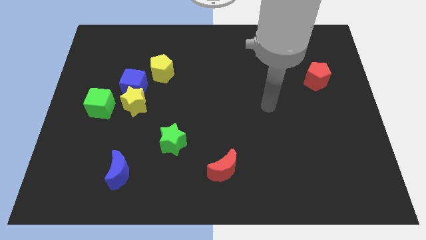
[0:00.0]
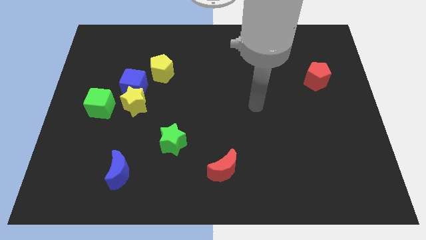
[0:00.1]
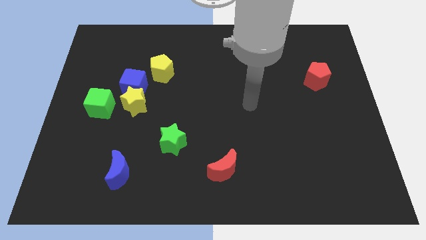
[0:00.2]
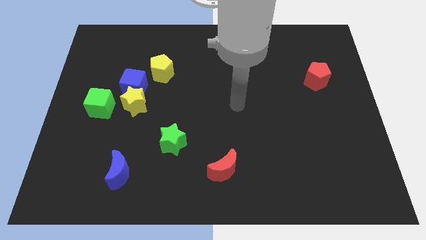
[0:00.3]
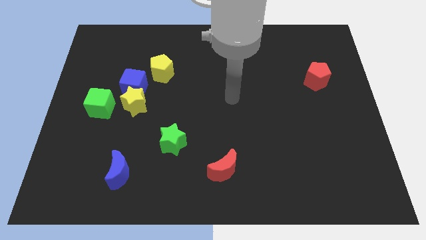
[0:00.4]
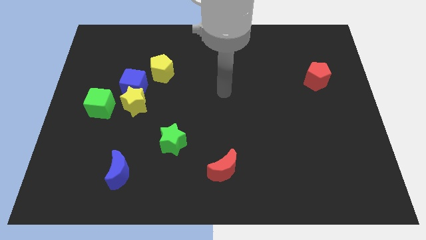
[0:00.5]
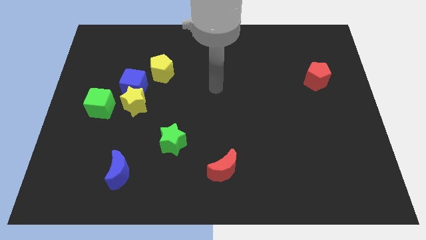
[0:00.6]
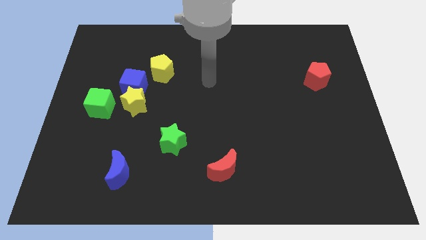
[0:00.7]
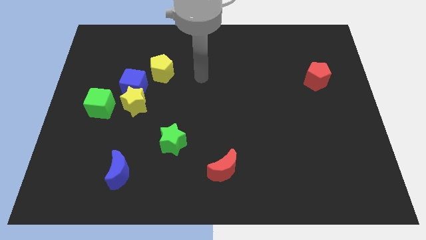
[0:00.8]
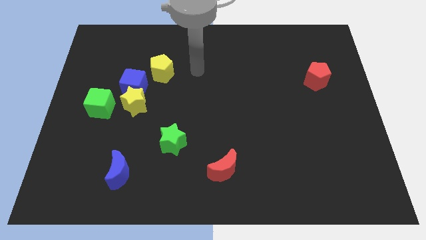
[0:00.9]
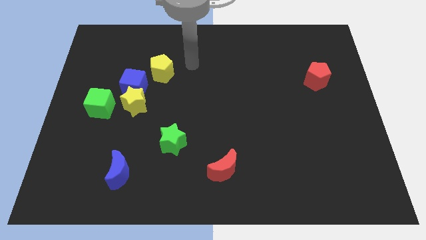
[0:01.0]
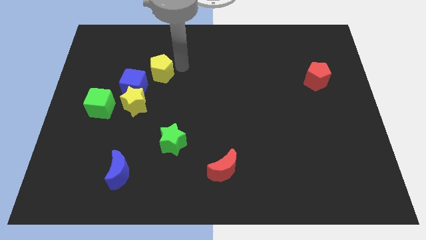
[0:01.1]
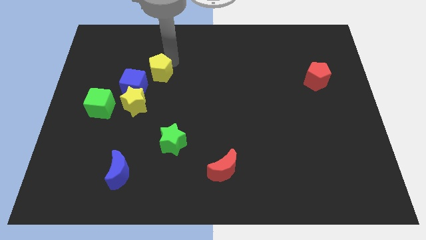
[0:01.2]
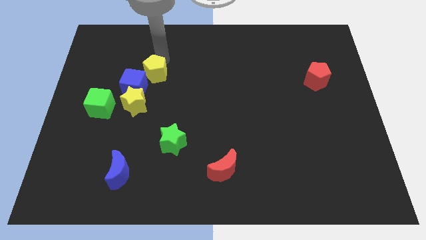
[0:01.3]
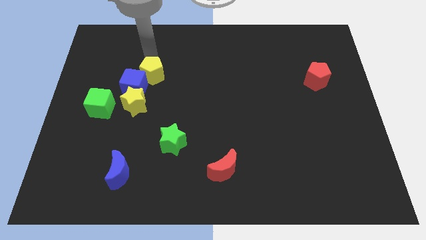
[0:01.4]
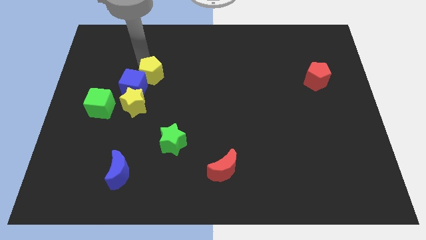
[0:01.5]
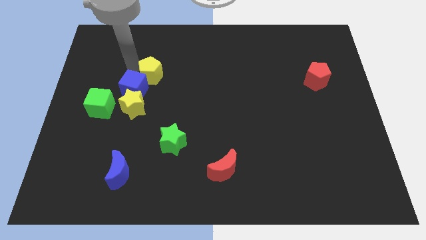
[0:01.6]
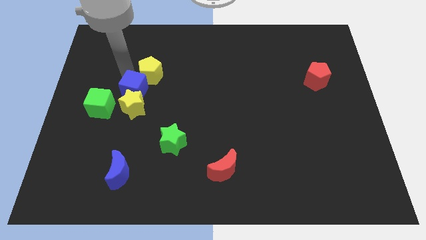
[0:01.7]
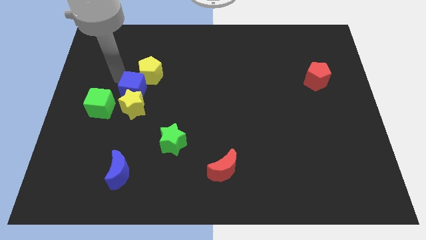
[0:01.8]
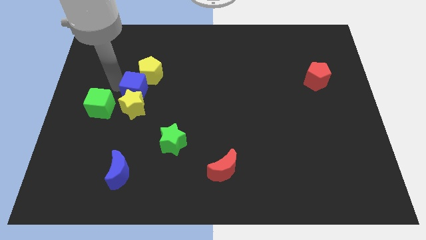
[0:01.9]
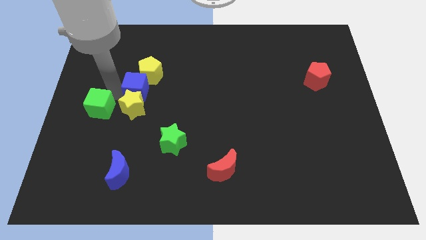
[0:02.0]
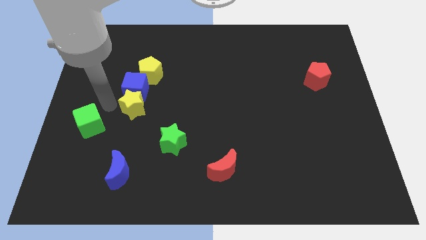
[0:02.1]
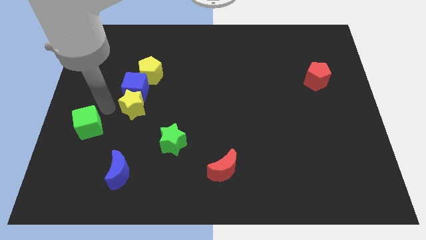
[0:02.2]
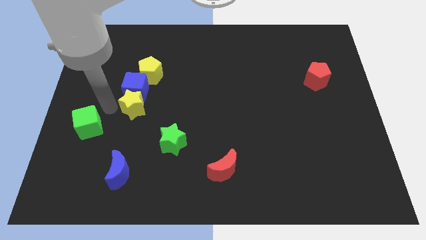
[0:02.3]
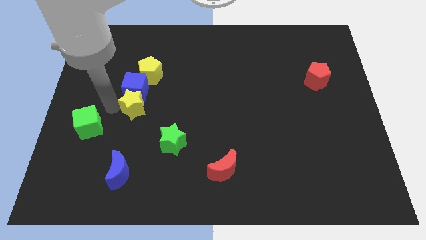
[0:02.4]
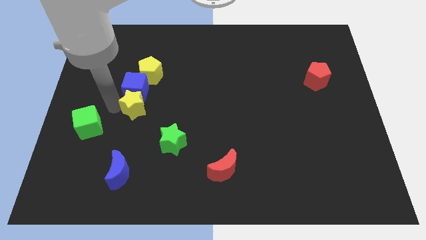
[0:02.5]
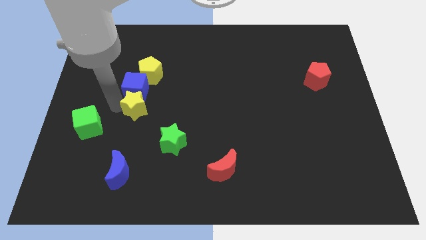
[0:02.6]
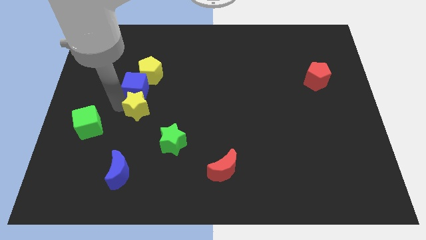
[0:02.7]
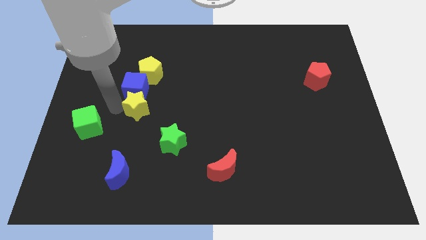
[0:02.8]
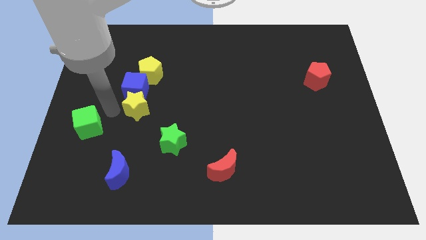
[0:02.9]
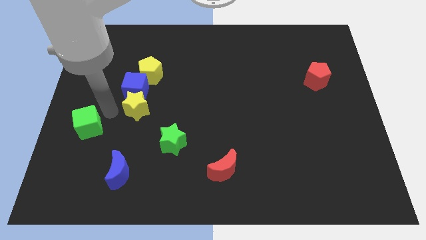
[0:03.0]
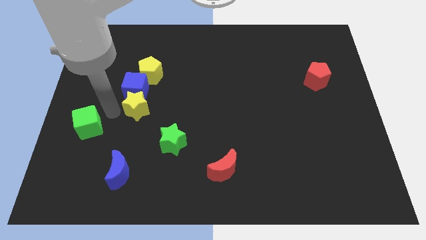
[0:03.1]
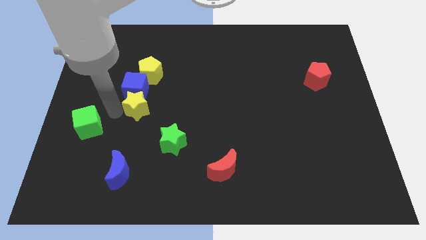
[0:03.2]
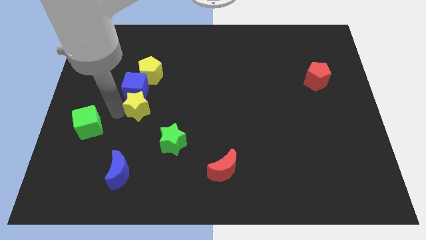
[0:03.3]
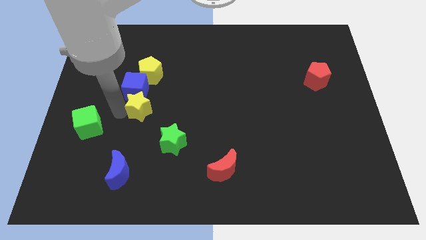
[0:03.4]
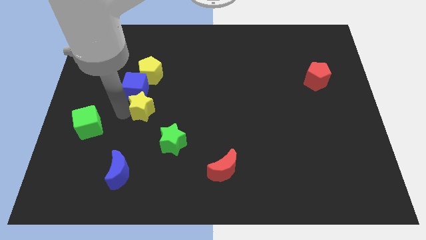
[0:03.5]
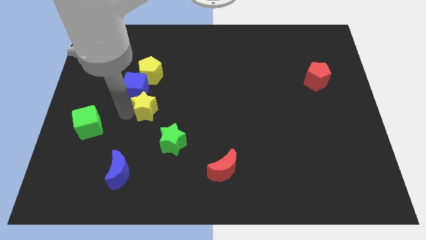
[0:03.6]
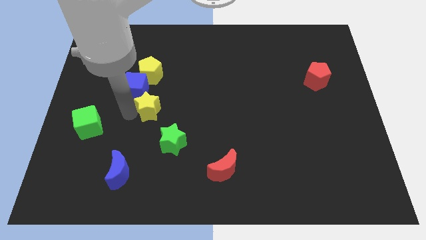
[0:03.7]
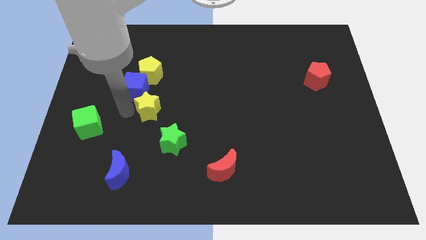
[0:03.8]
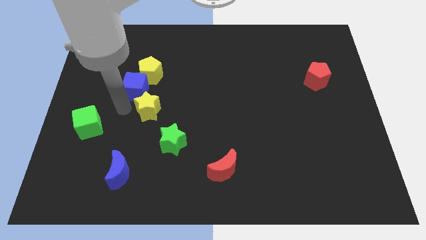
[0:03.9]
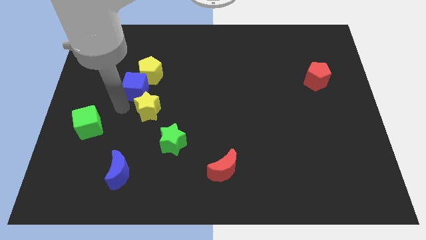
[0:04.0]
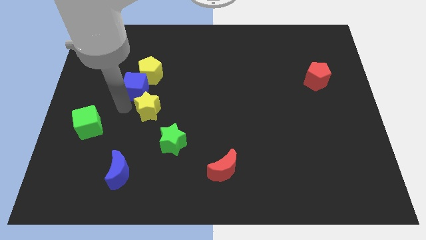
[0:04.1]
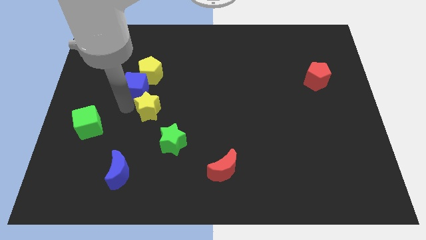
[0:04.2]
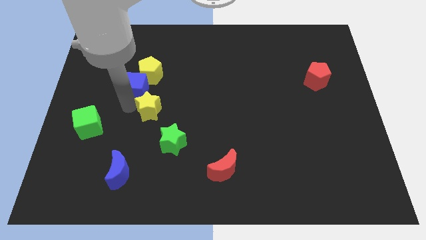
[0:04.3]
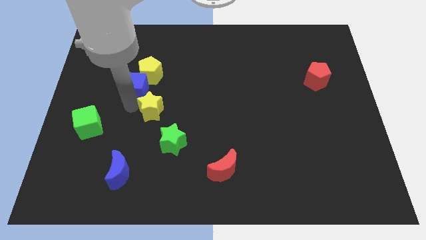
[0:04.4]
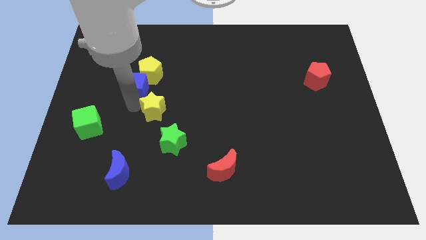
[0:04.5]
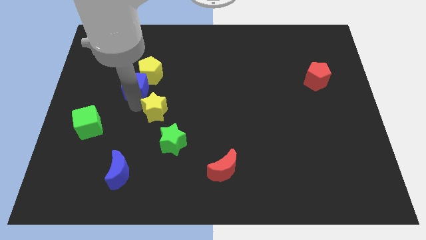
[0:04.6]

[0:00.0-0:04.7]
move the yellow star away from the blue cube and green cube

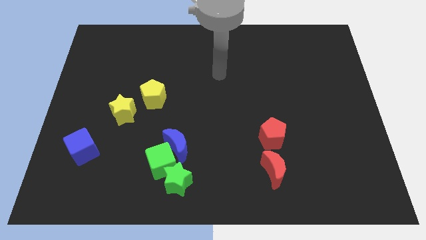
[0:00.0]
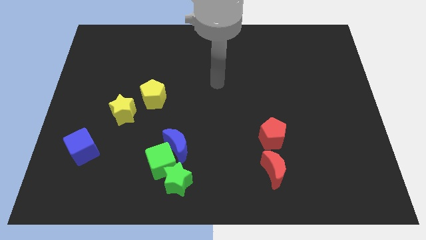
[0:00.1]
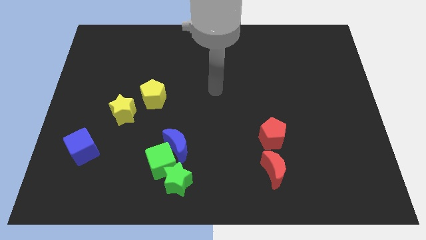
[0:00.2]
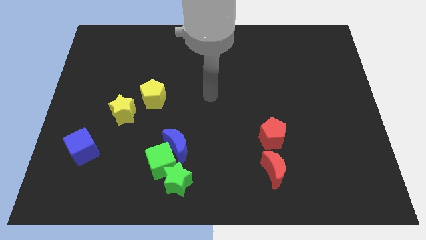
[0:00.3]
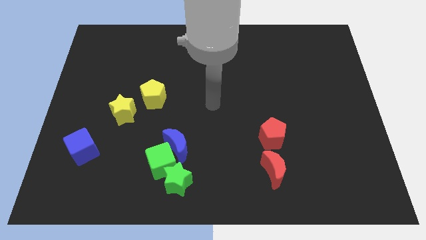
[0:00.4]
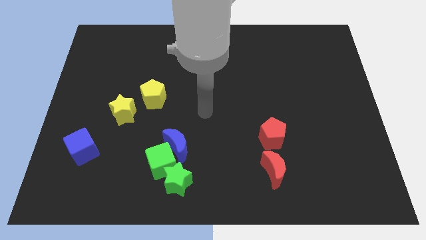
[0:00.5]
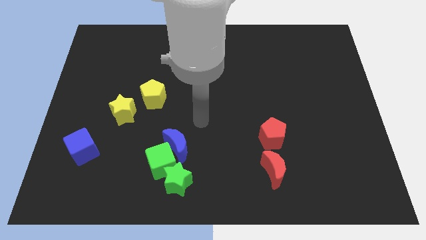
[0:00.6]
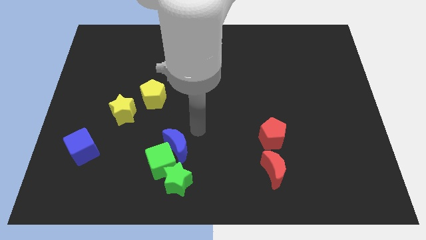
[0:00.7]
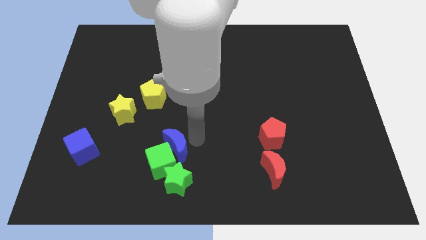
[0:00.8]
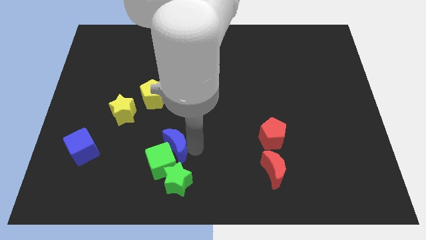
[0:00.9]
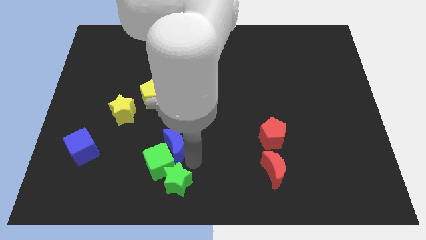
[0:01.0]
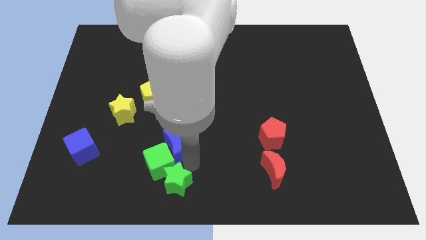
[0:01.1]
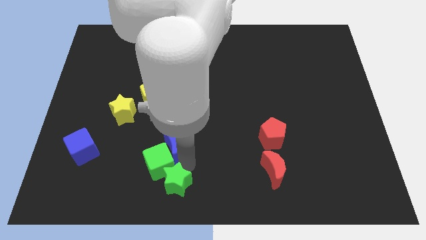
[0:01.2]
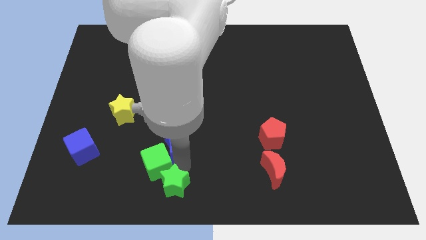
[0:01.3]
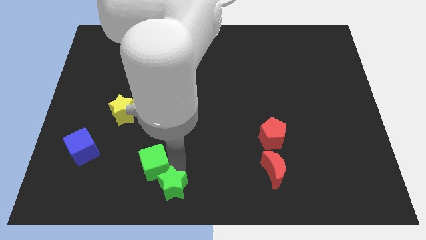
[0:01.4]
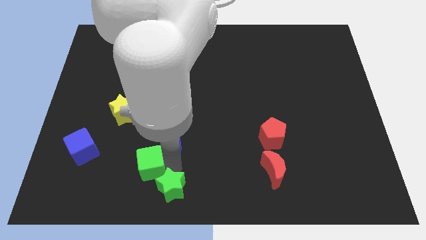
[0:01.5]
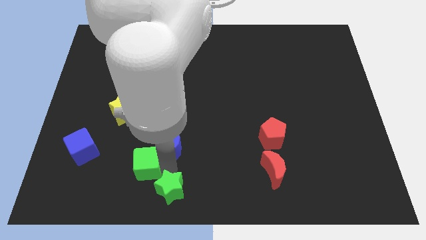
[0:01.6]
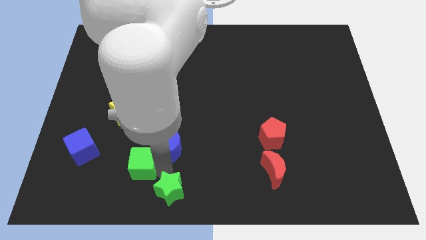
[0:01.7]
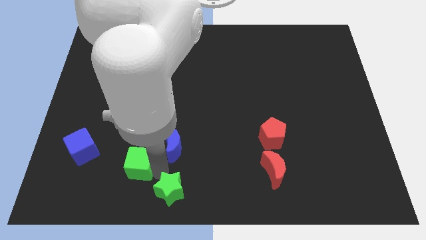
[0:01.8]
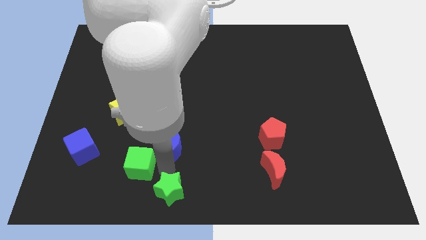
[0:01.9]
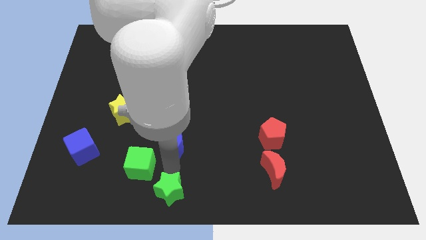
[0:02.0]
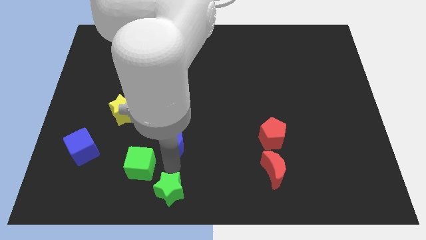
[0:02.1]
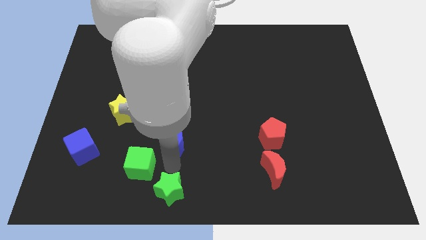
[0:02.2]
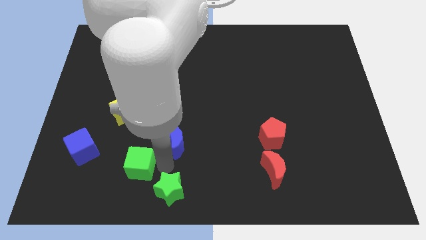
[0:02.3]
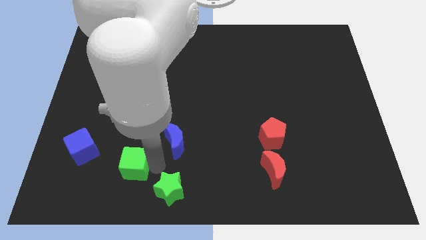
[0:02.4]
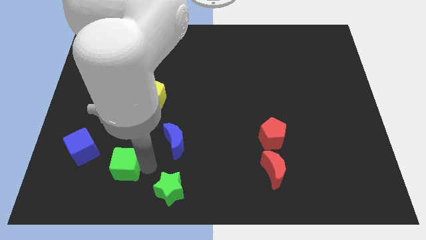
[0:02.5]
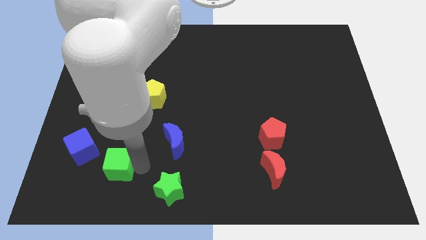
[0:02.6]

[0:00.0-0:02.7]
move the green cube away from the blue moon and green star

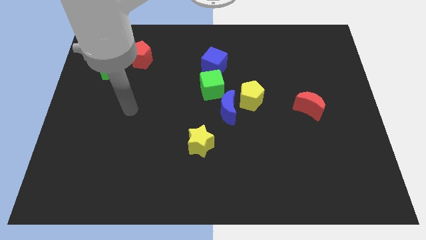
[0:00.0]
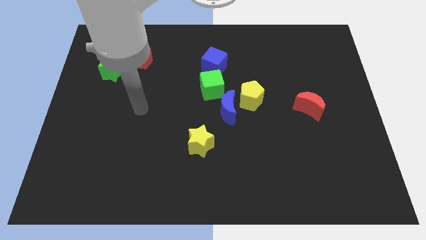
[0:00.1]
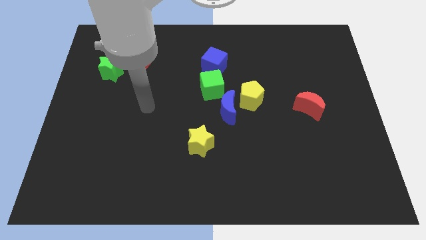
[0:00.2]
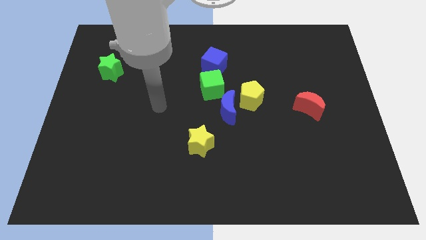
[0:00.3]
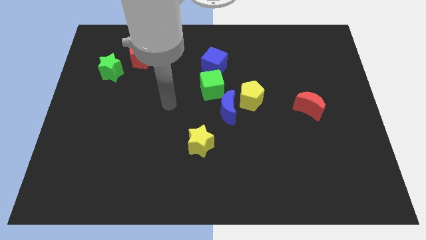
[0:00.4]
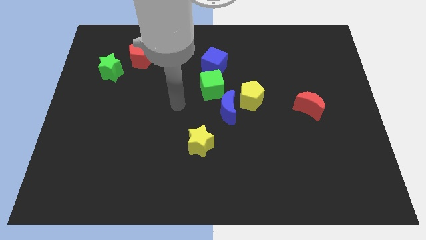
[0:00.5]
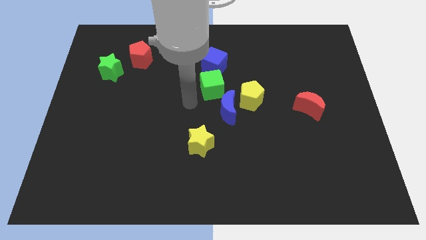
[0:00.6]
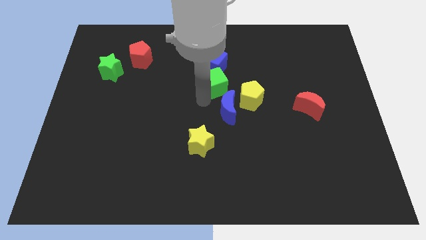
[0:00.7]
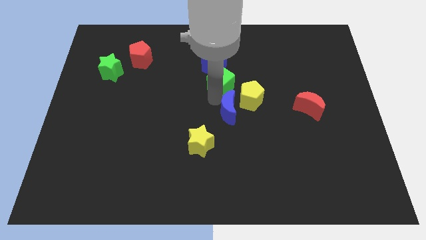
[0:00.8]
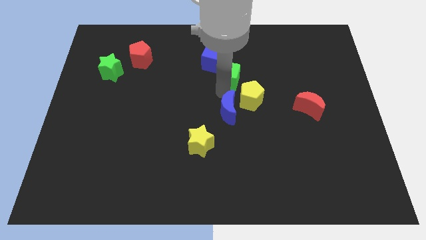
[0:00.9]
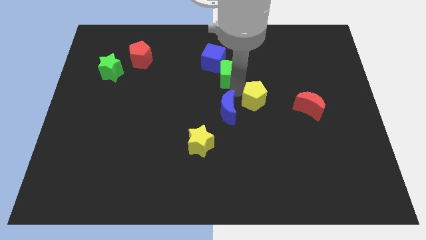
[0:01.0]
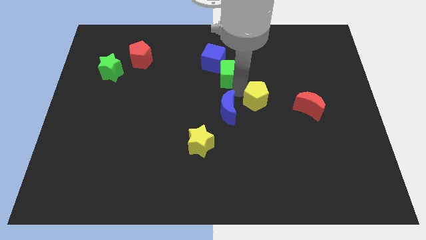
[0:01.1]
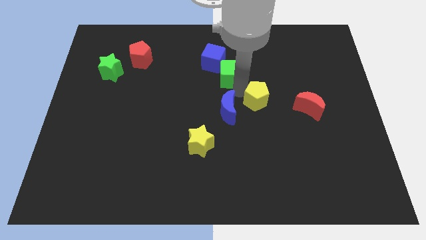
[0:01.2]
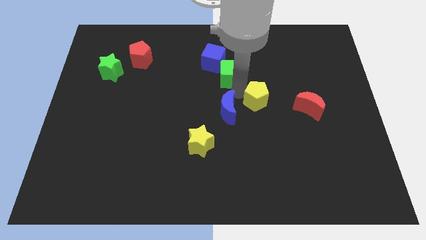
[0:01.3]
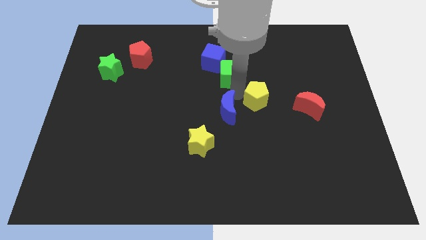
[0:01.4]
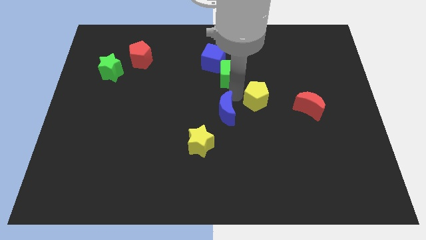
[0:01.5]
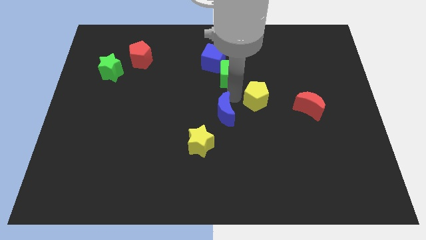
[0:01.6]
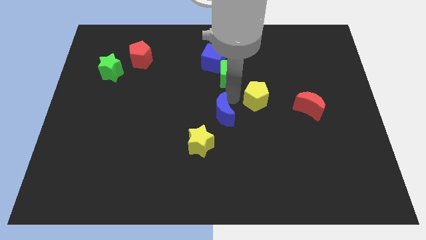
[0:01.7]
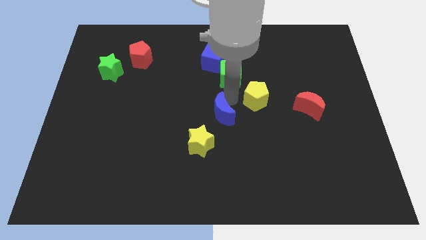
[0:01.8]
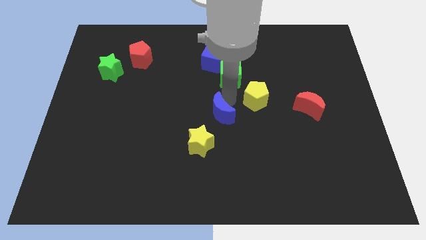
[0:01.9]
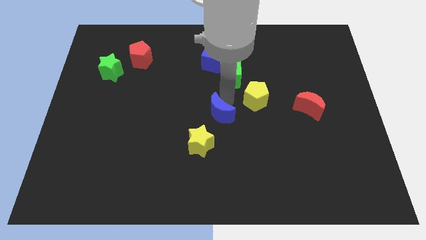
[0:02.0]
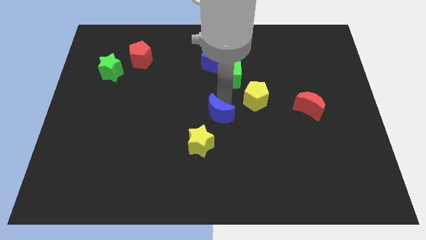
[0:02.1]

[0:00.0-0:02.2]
pull the blue moon apart from the yellow pentagon and green cube
